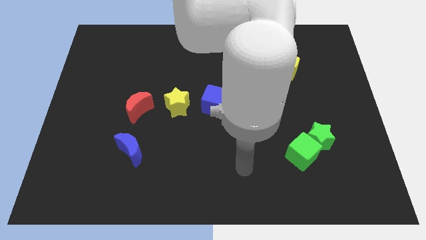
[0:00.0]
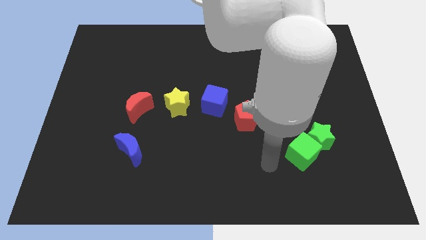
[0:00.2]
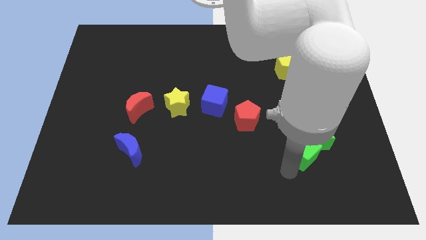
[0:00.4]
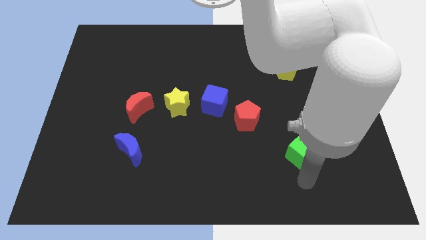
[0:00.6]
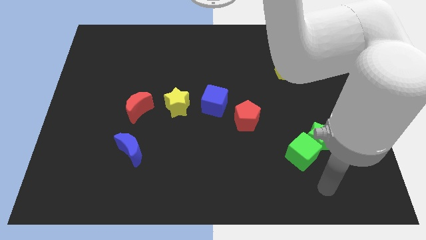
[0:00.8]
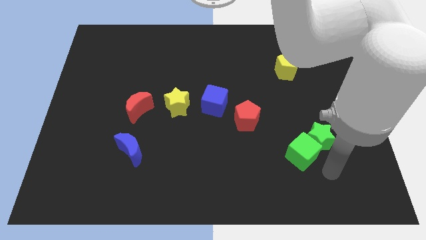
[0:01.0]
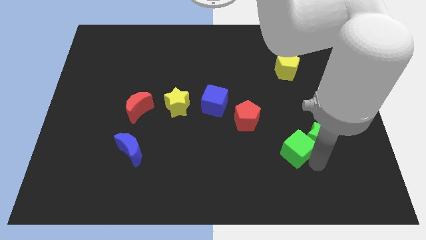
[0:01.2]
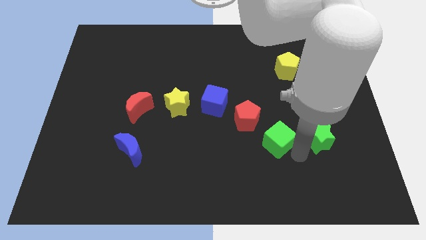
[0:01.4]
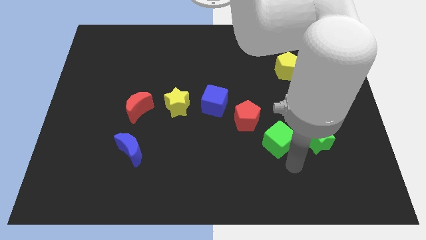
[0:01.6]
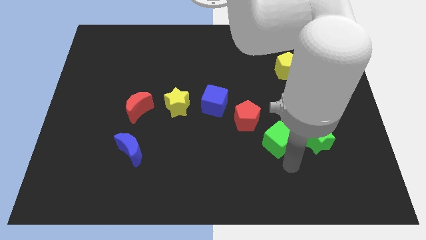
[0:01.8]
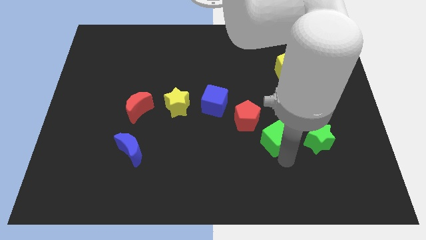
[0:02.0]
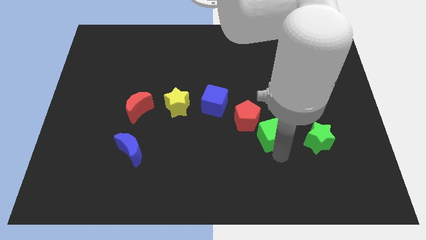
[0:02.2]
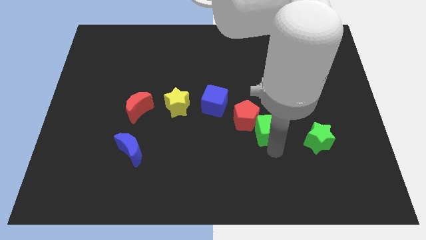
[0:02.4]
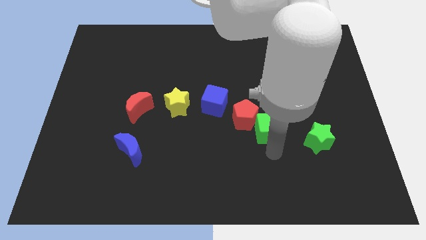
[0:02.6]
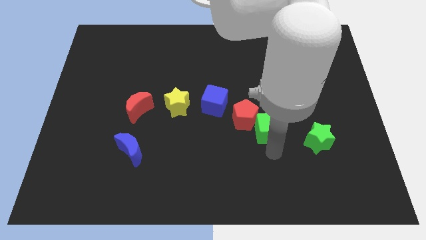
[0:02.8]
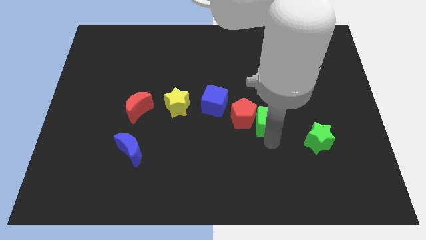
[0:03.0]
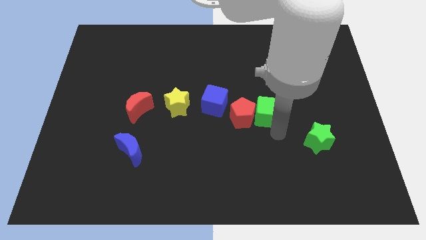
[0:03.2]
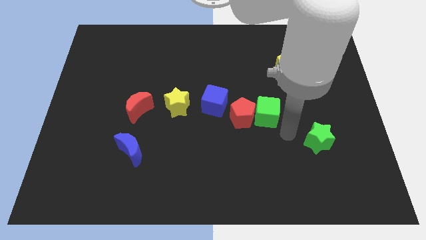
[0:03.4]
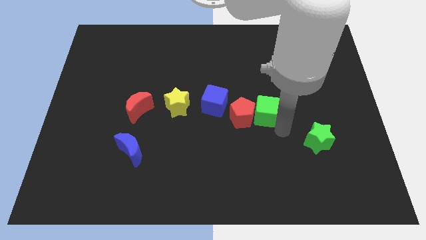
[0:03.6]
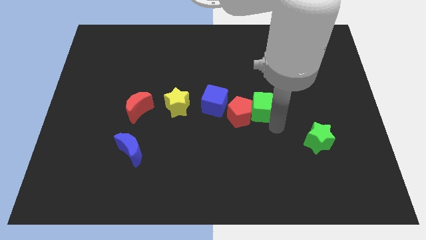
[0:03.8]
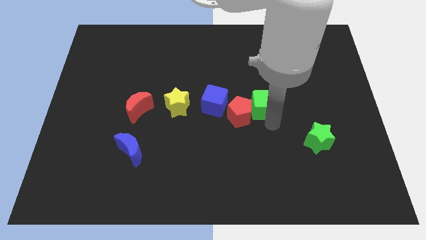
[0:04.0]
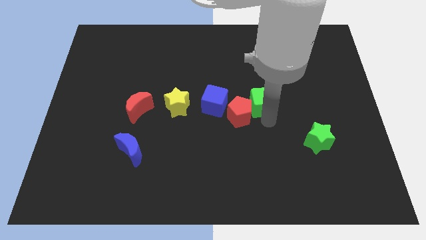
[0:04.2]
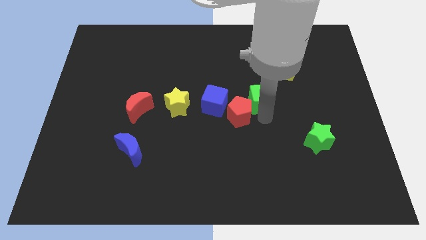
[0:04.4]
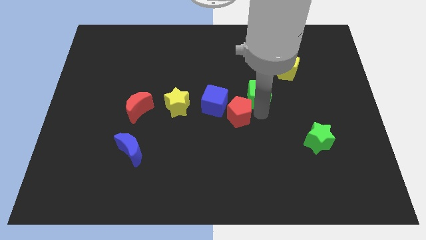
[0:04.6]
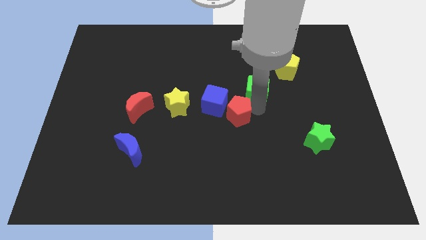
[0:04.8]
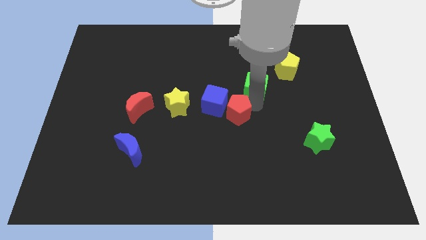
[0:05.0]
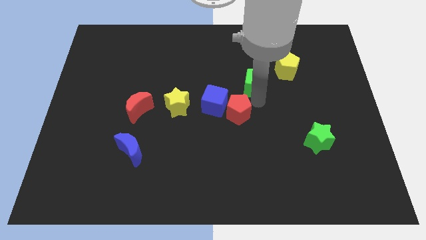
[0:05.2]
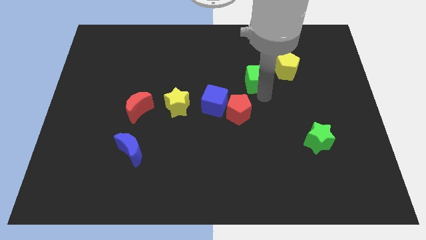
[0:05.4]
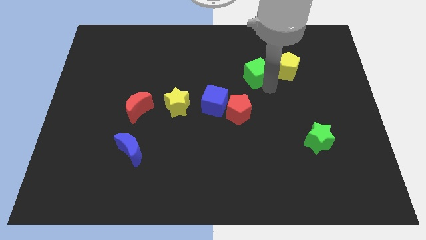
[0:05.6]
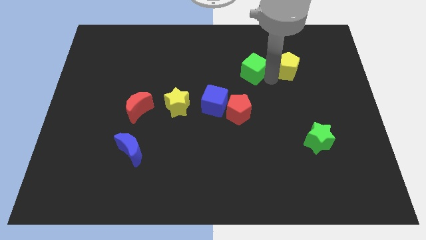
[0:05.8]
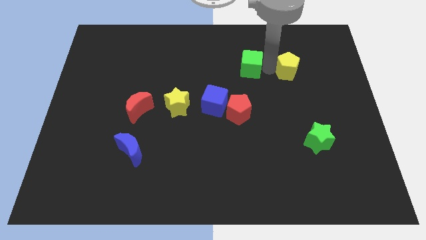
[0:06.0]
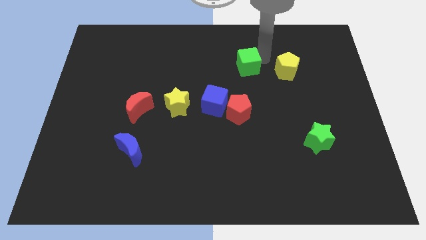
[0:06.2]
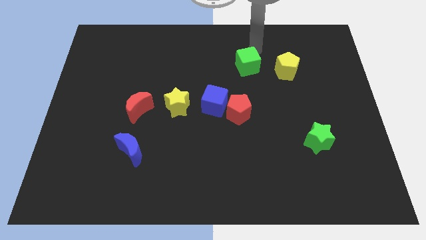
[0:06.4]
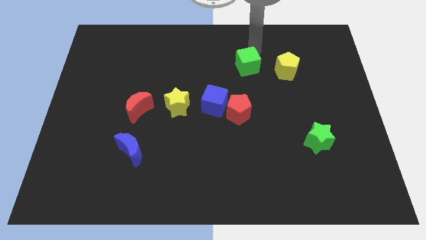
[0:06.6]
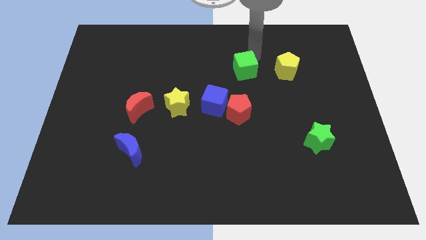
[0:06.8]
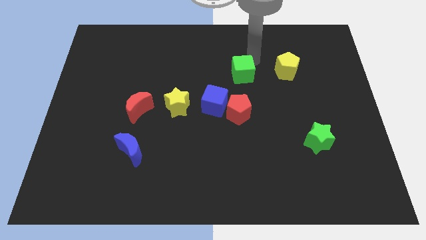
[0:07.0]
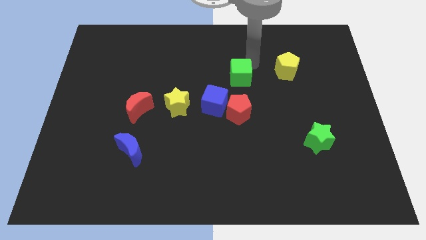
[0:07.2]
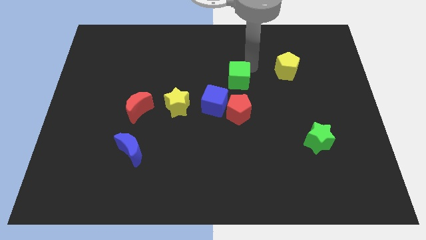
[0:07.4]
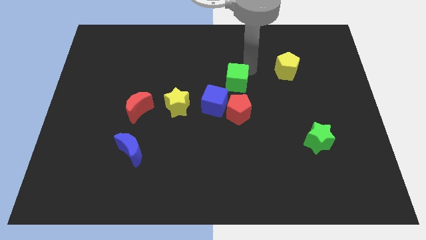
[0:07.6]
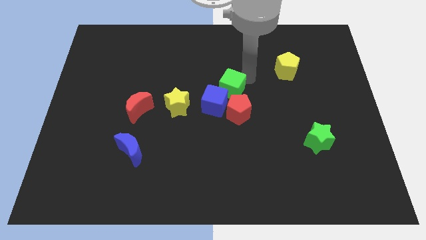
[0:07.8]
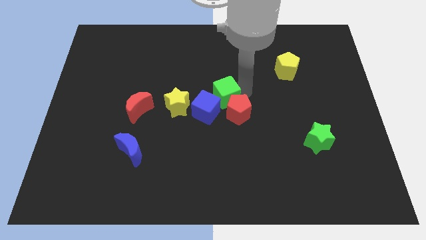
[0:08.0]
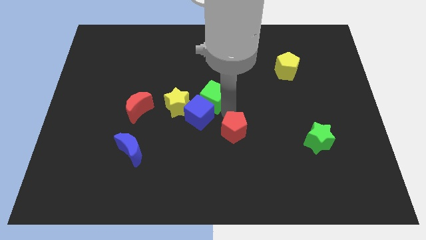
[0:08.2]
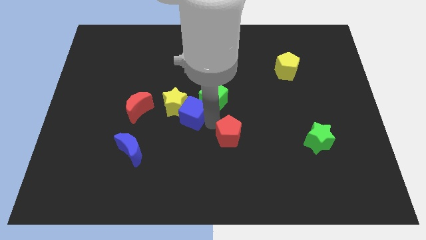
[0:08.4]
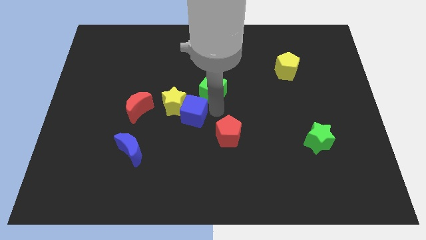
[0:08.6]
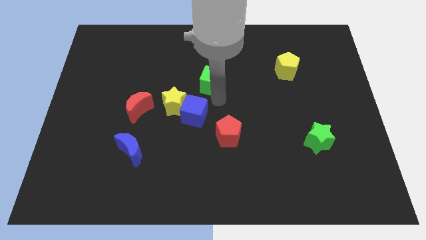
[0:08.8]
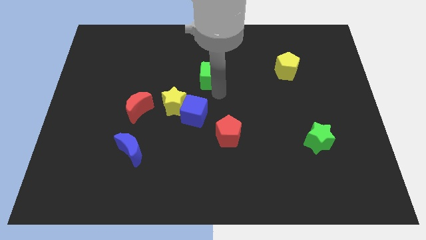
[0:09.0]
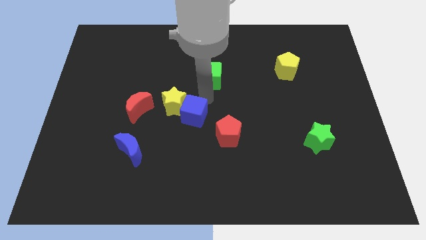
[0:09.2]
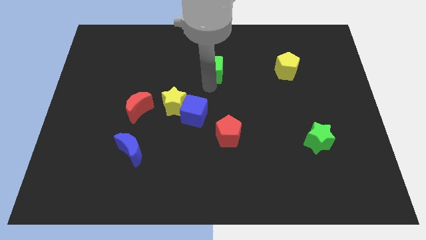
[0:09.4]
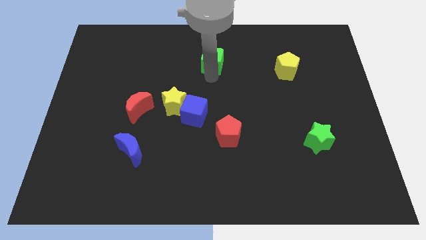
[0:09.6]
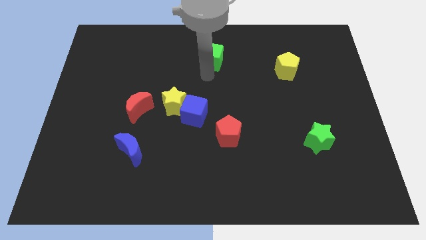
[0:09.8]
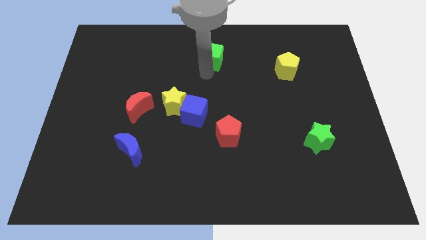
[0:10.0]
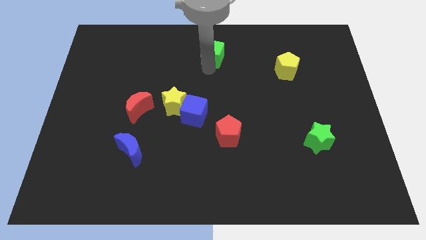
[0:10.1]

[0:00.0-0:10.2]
move the green cube to the towards your base

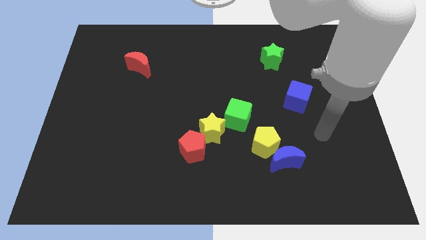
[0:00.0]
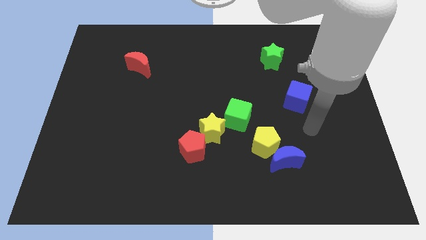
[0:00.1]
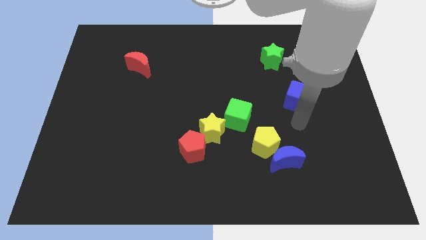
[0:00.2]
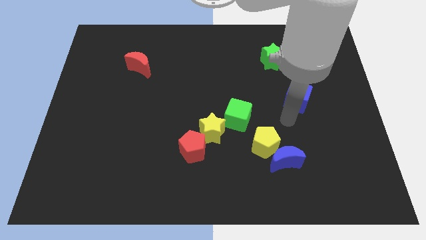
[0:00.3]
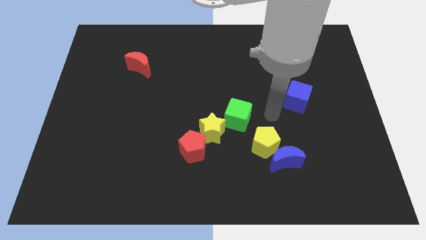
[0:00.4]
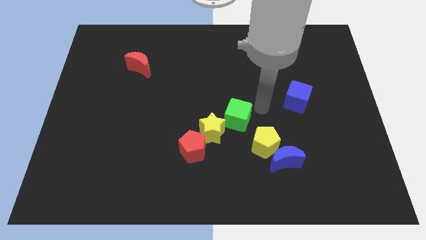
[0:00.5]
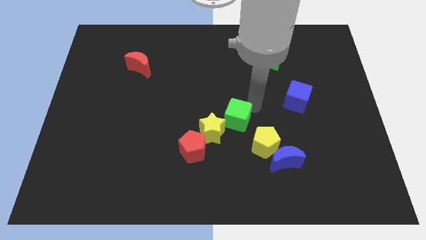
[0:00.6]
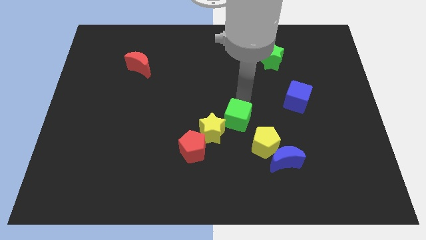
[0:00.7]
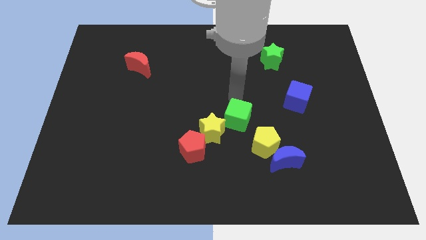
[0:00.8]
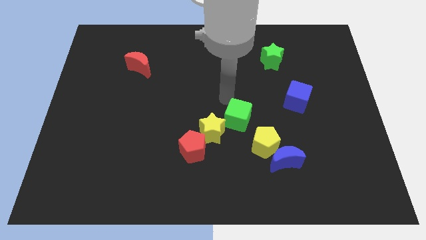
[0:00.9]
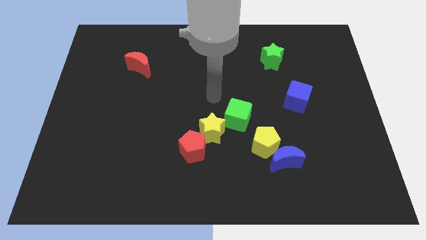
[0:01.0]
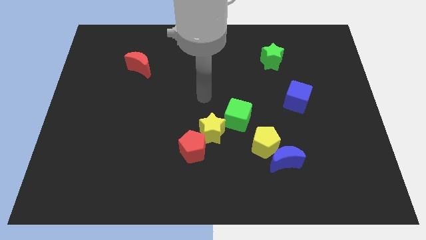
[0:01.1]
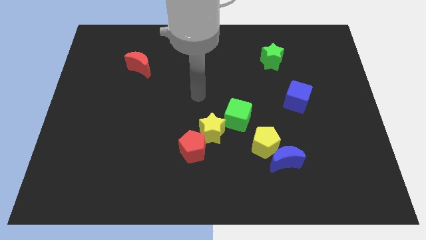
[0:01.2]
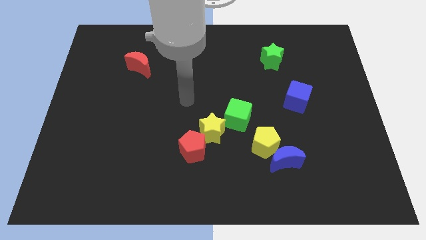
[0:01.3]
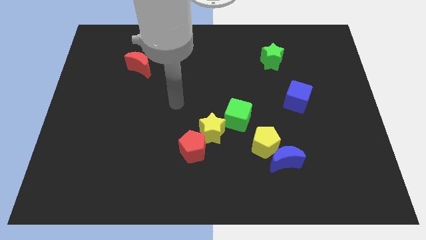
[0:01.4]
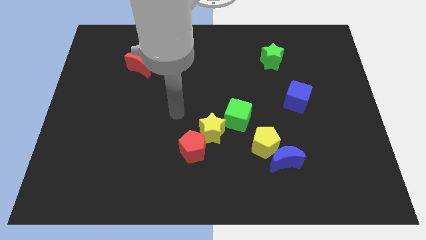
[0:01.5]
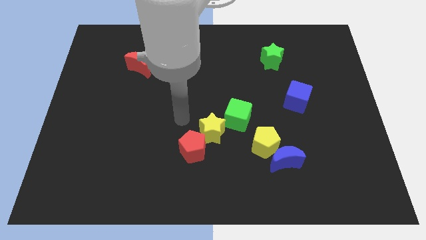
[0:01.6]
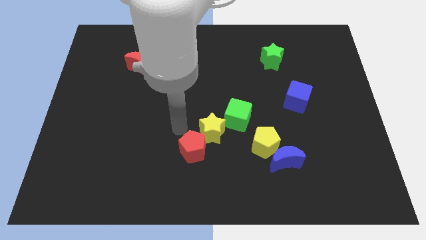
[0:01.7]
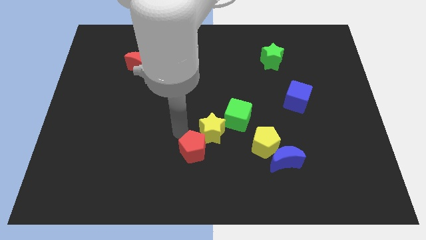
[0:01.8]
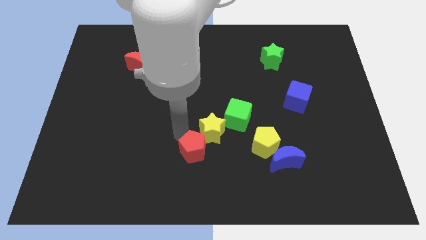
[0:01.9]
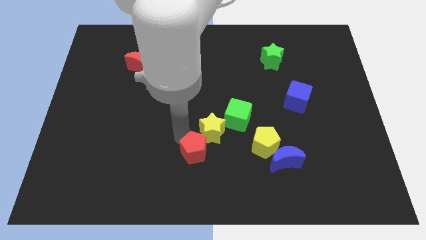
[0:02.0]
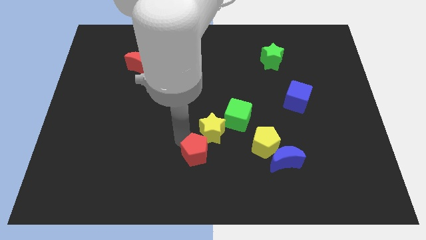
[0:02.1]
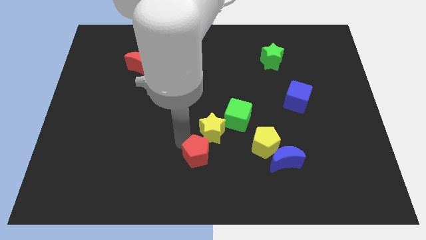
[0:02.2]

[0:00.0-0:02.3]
push the red pentagon to the bottom
